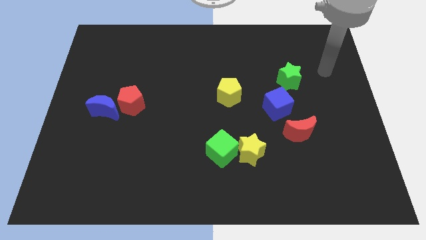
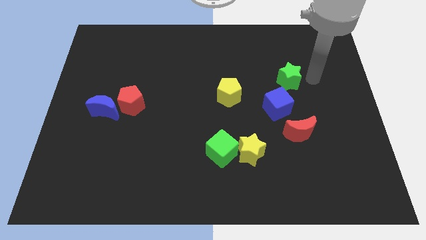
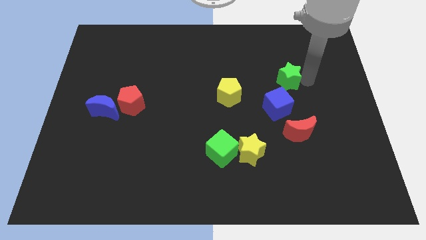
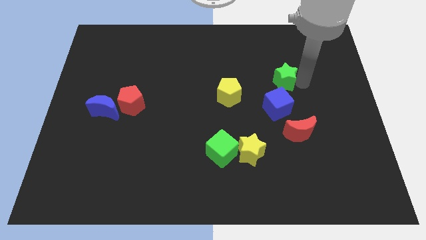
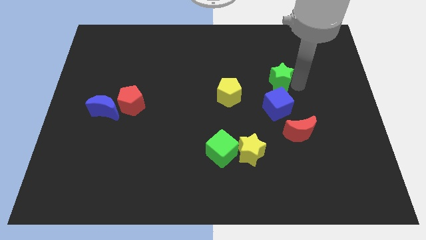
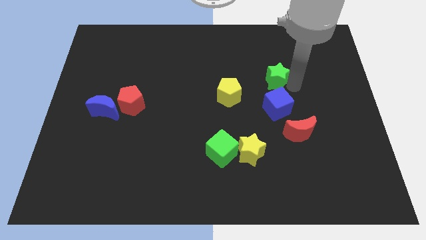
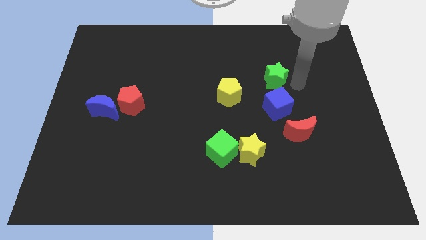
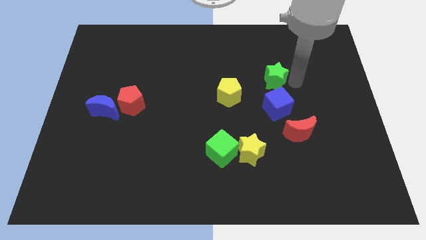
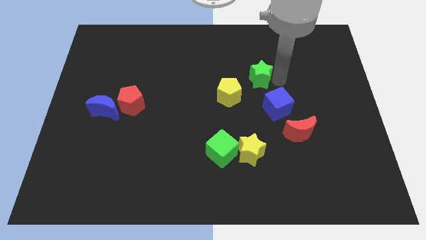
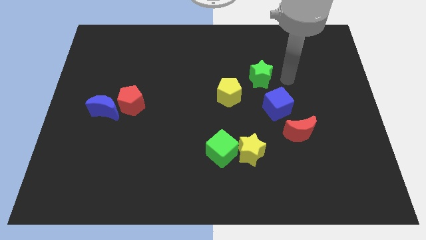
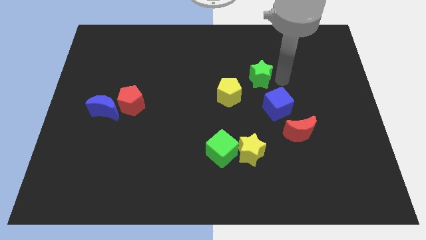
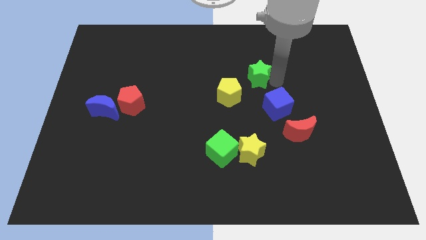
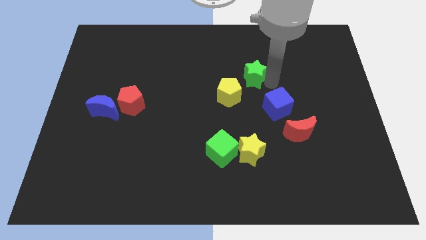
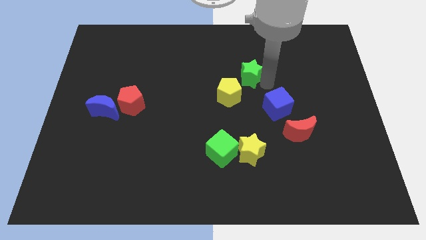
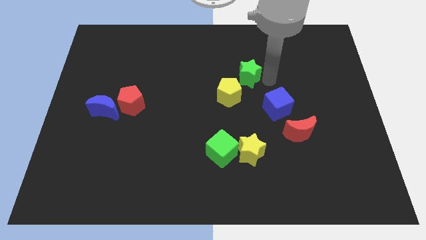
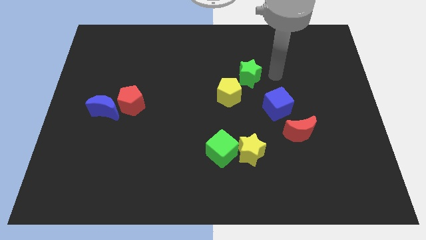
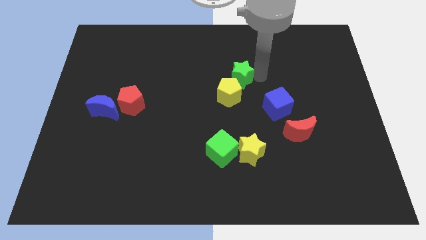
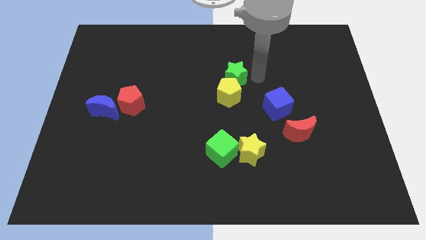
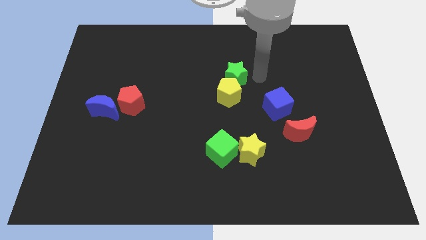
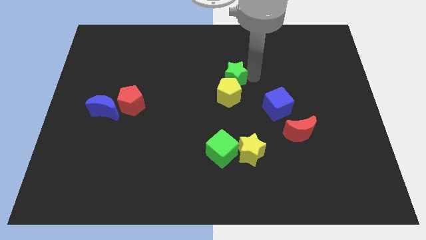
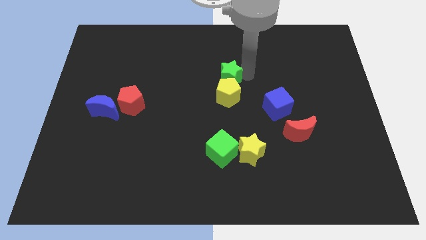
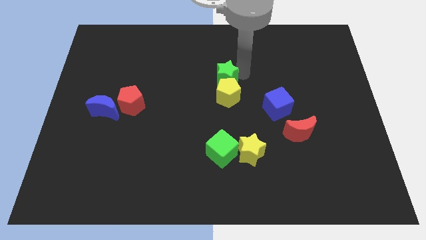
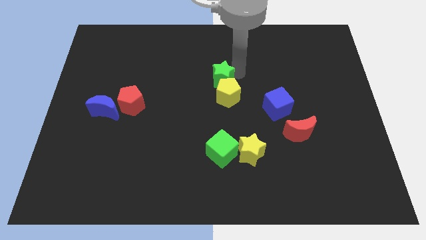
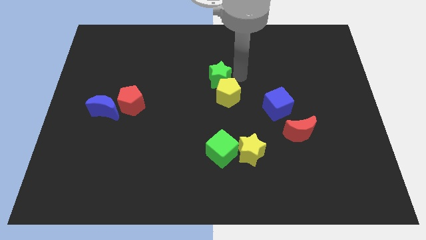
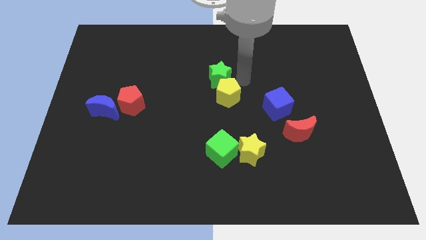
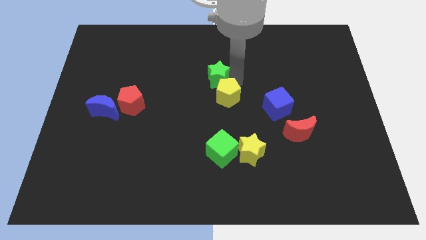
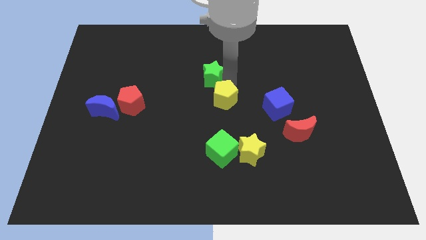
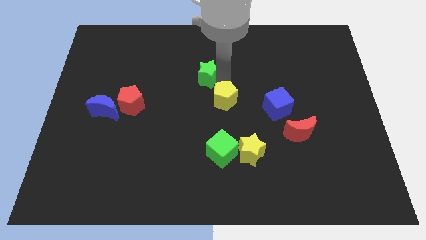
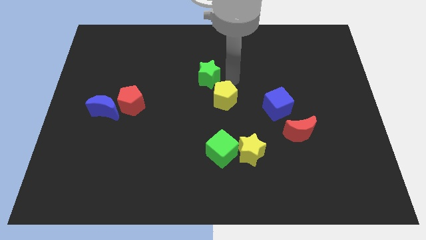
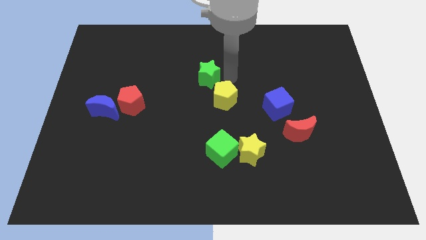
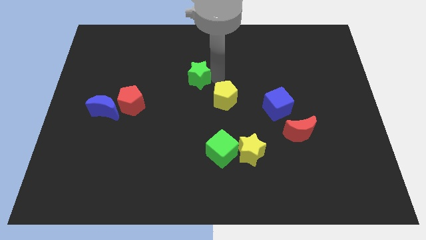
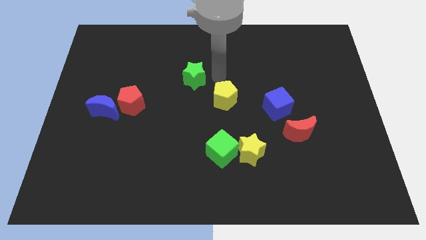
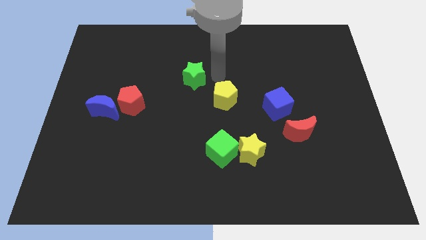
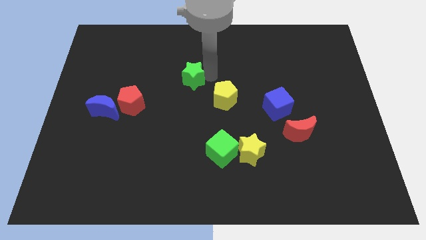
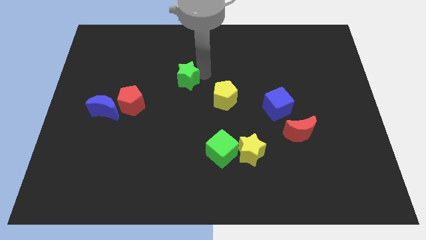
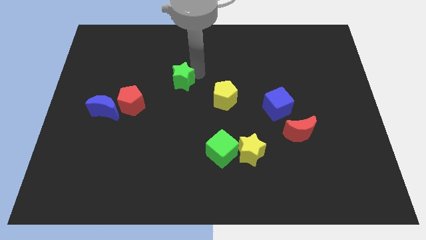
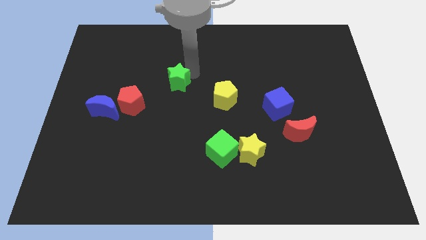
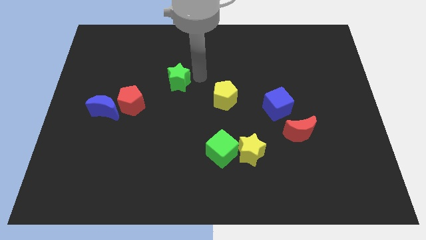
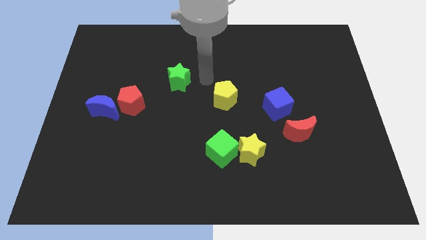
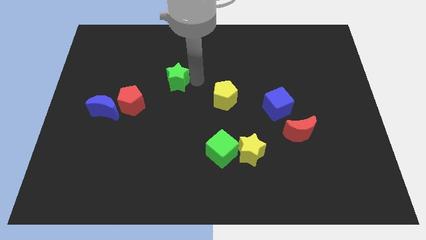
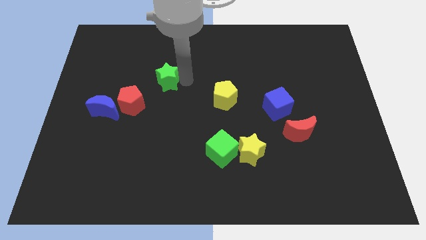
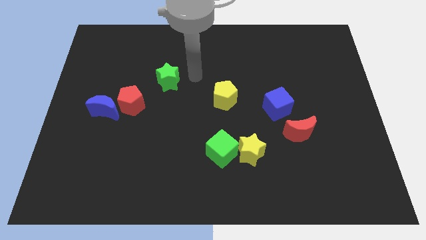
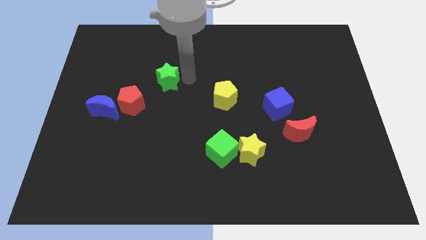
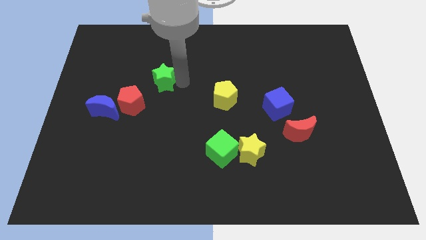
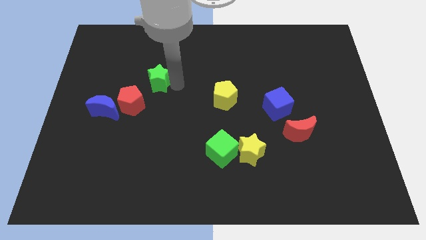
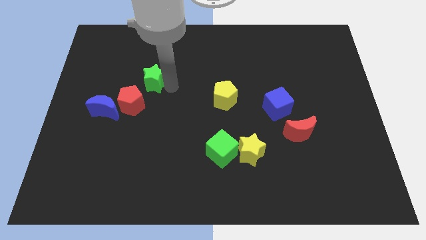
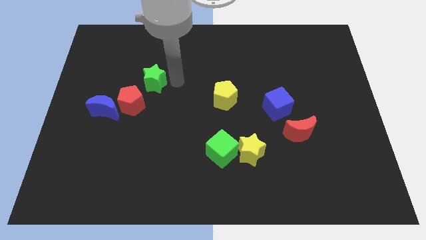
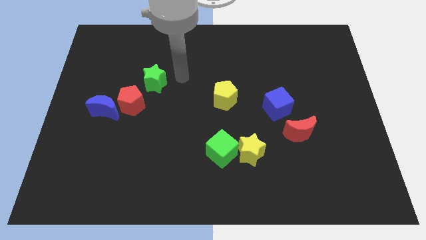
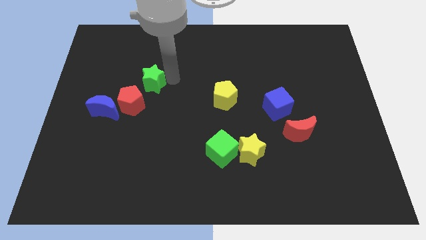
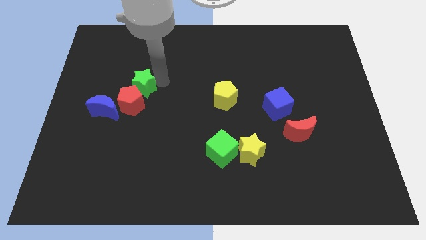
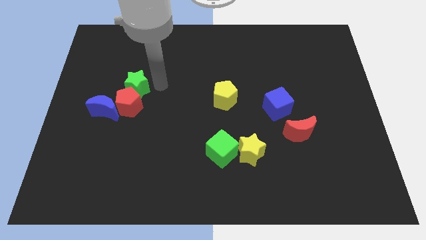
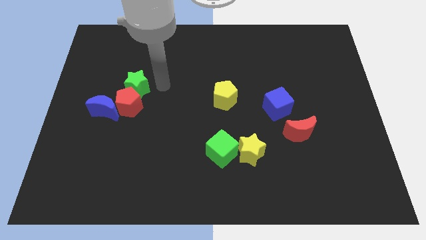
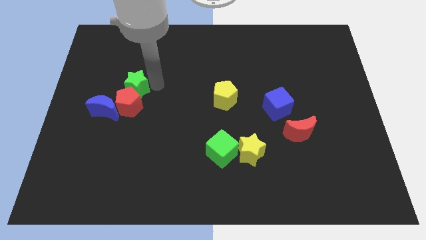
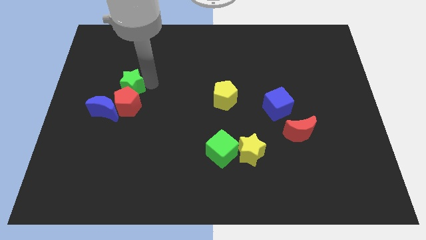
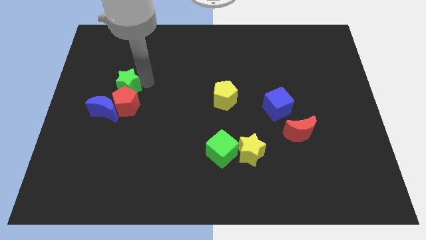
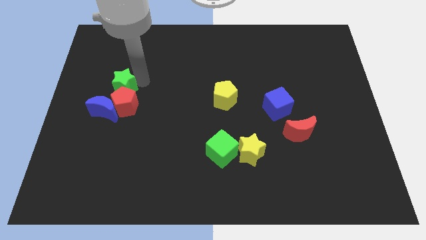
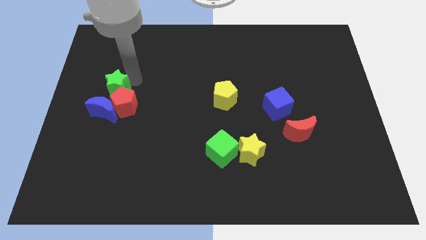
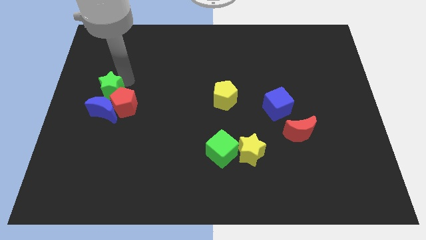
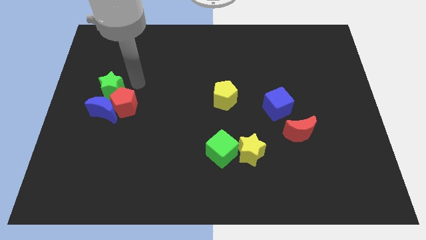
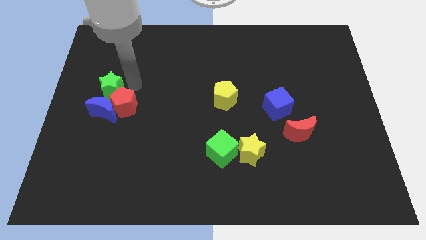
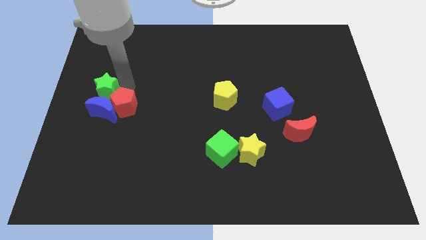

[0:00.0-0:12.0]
slide the green star to the left side
